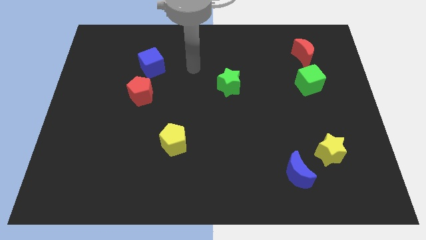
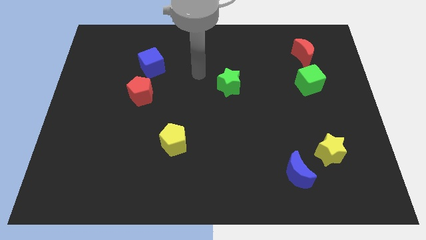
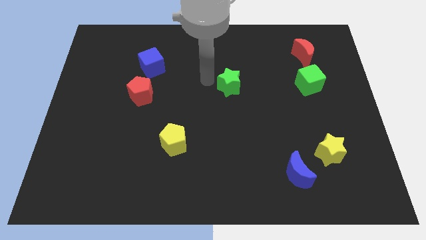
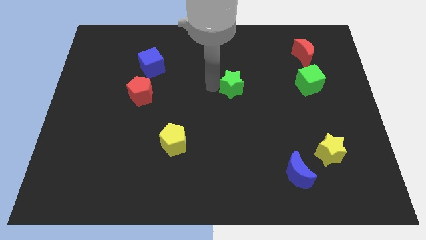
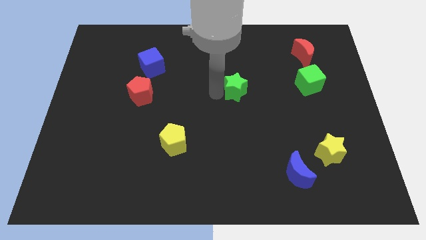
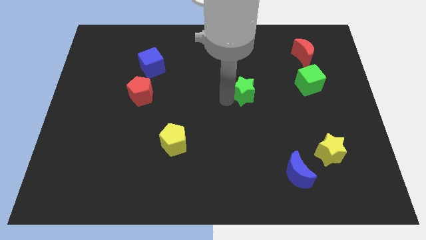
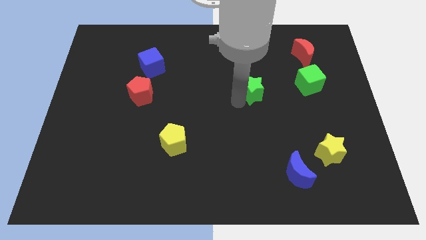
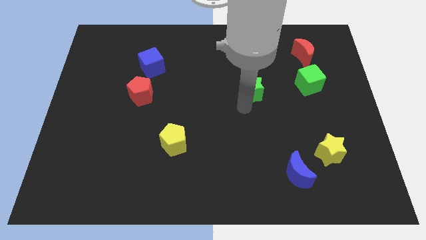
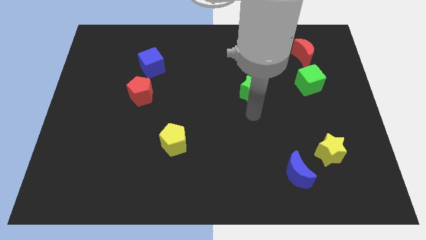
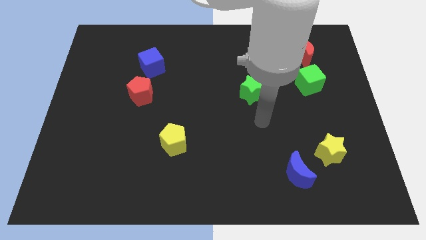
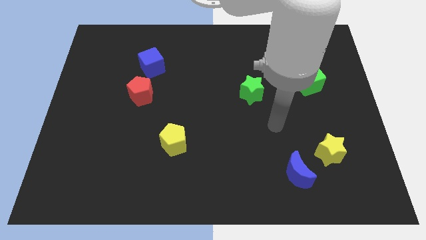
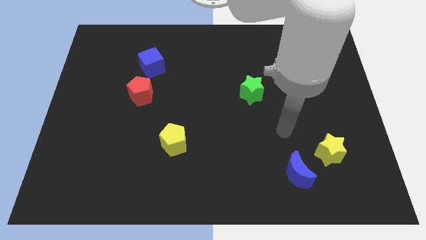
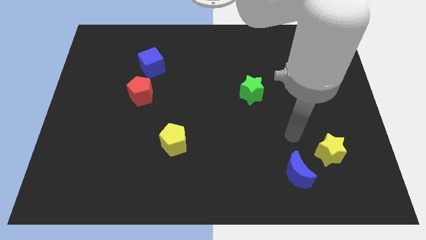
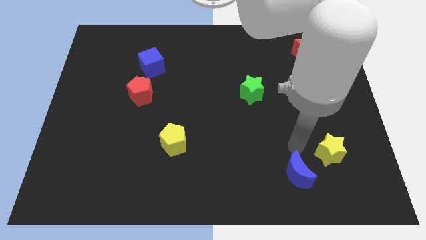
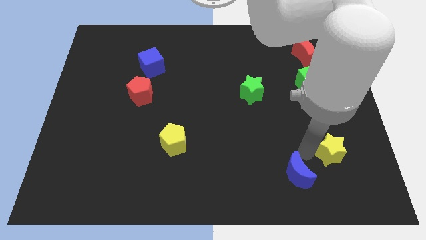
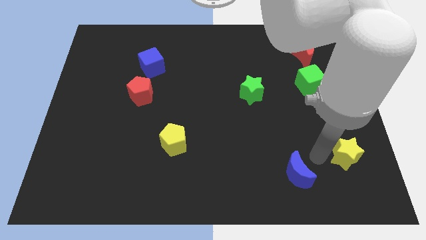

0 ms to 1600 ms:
move the blue moon away from the yellow star

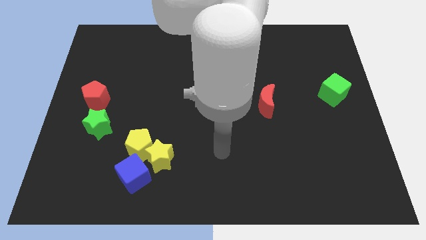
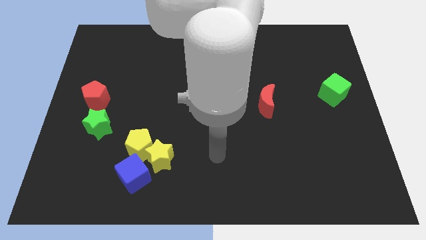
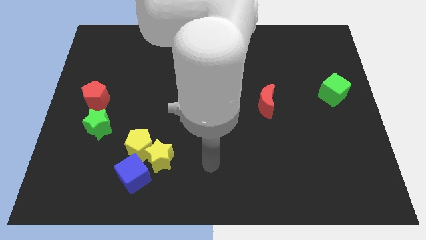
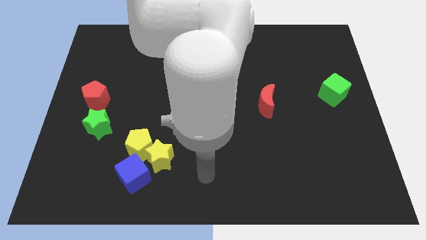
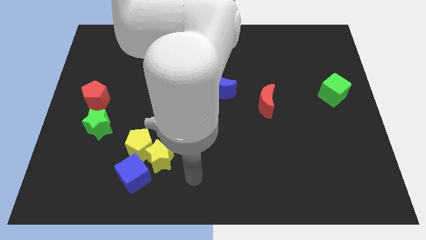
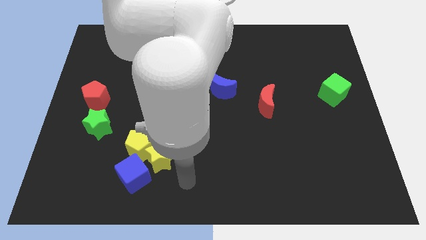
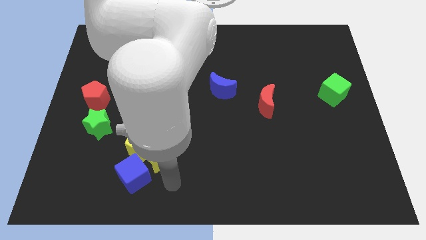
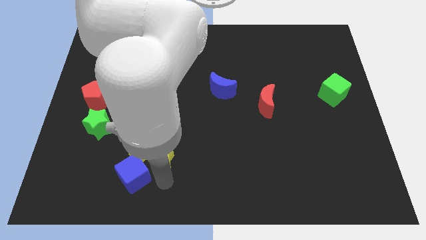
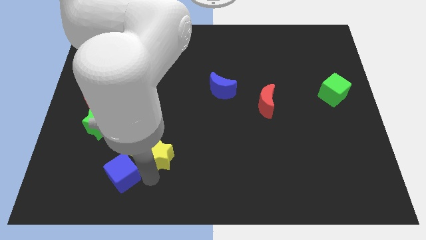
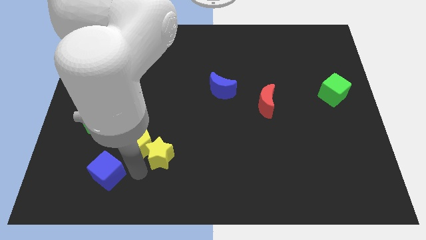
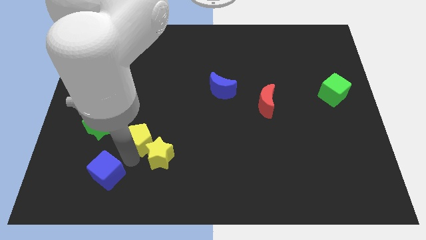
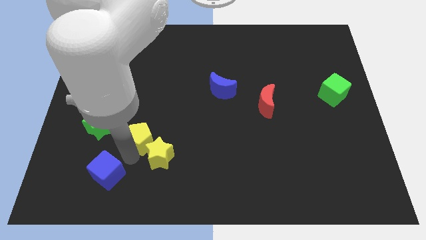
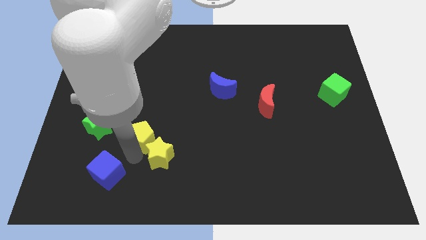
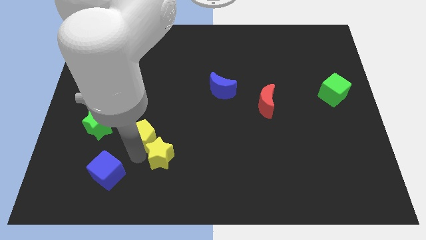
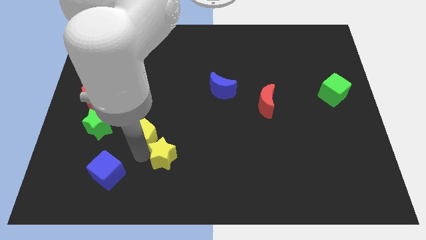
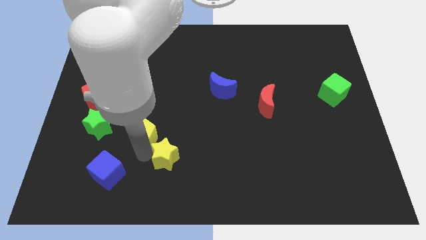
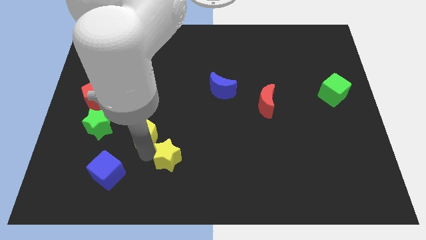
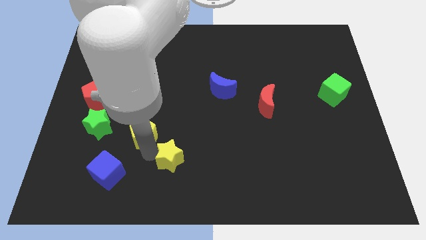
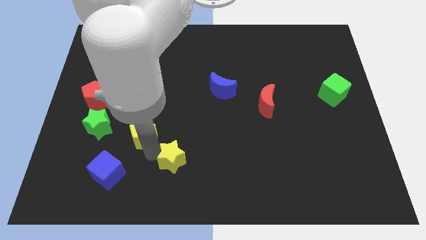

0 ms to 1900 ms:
pull the yellow star apart from the yellow pentagon and blue cube

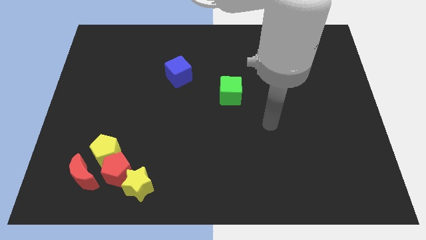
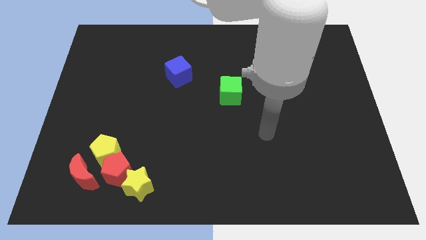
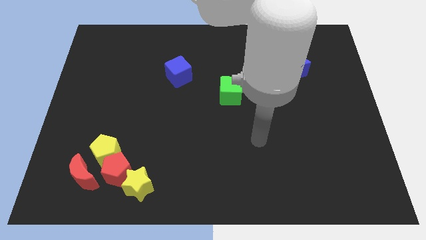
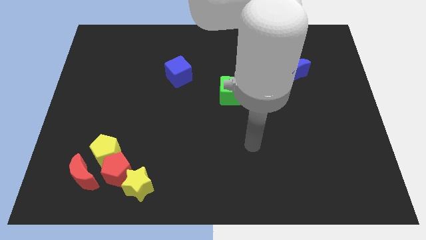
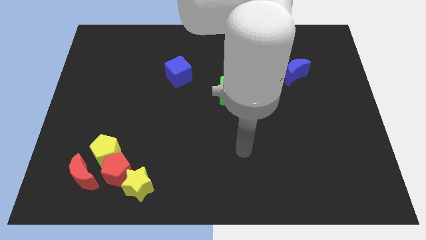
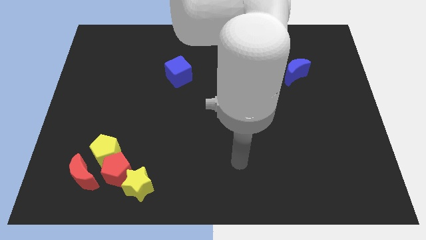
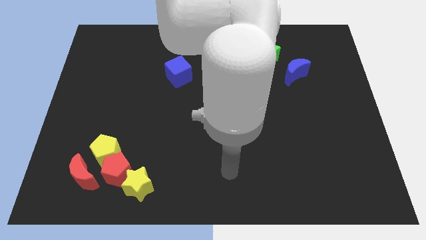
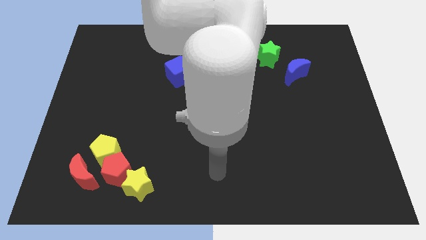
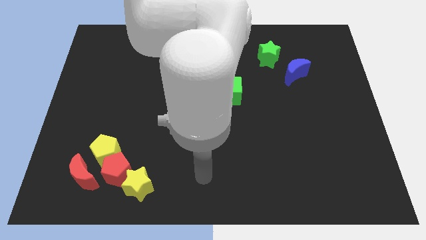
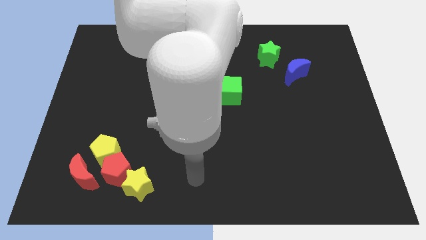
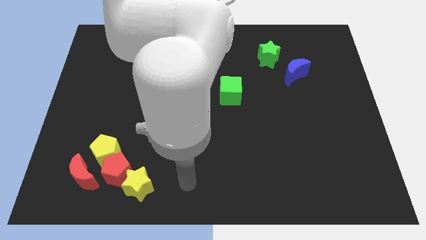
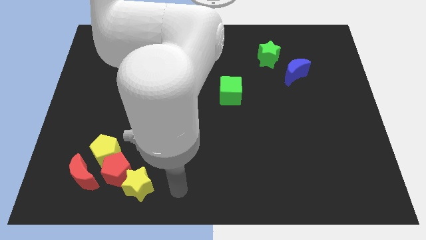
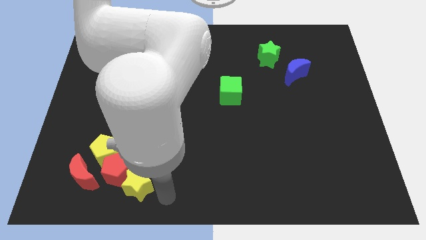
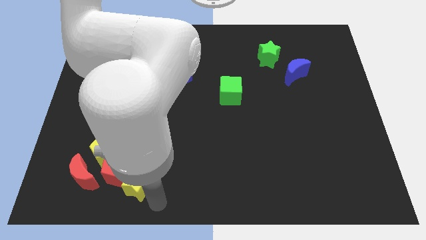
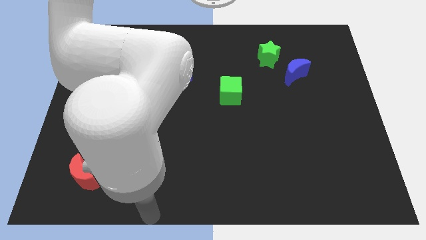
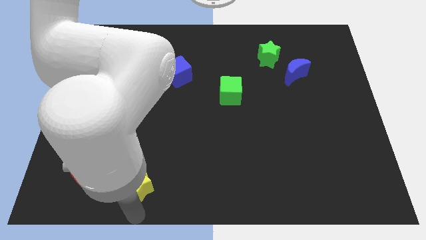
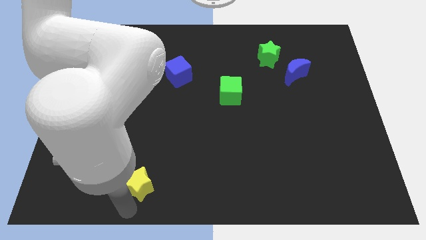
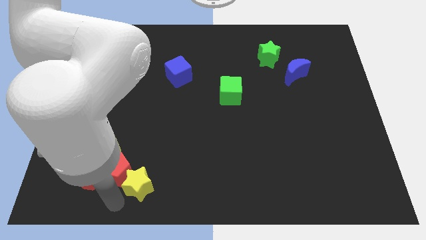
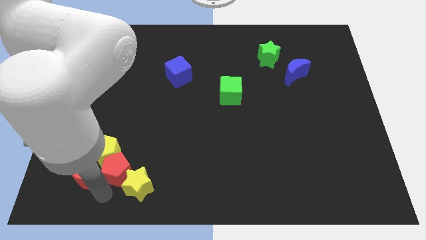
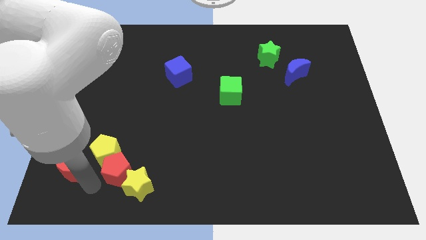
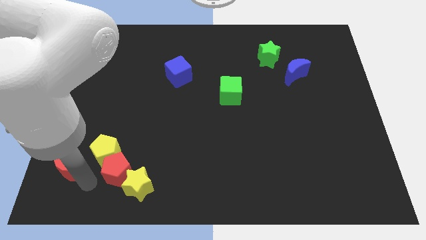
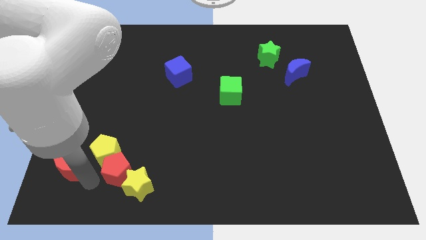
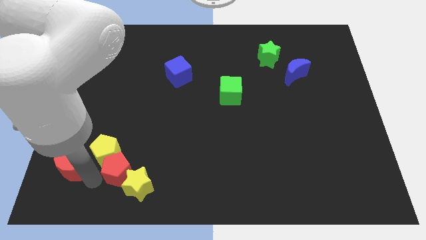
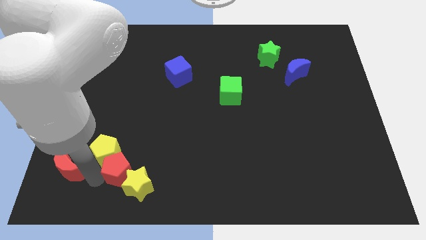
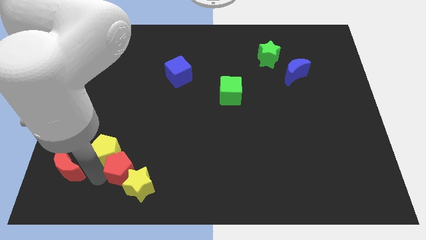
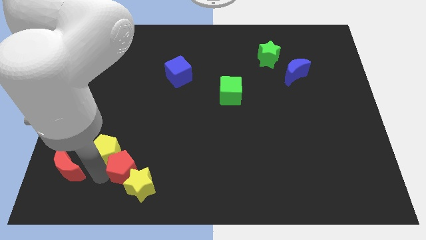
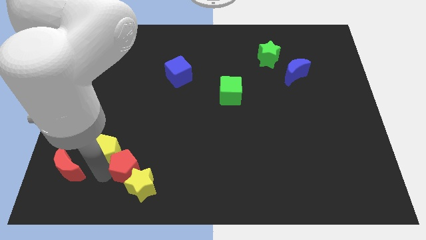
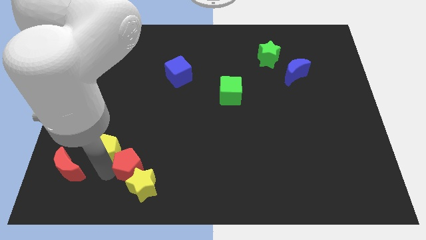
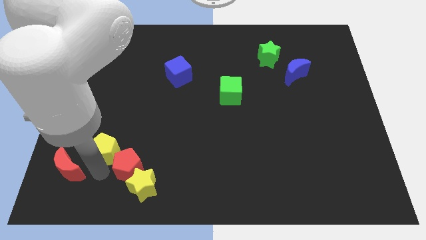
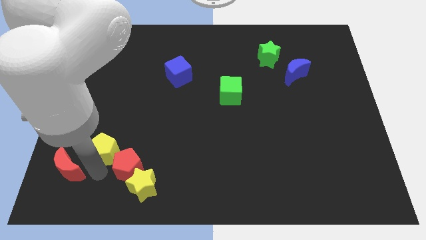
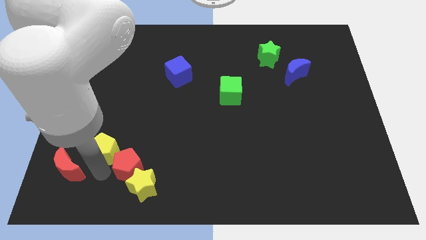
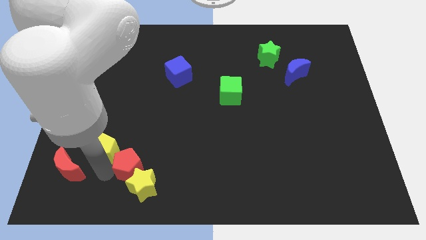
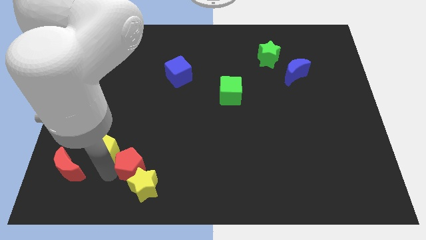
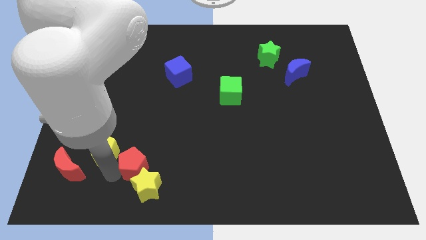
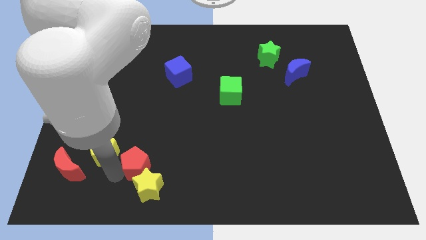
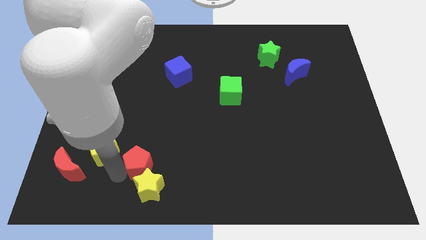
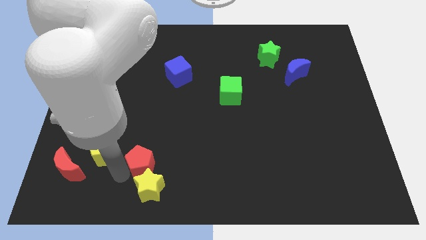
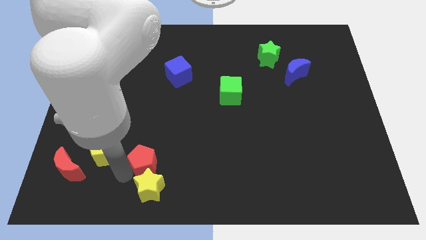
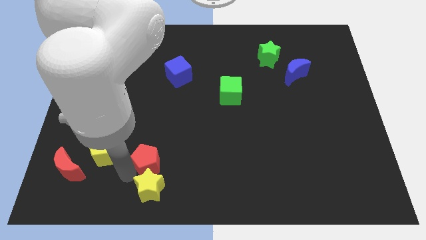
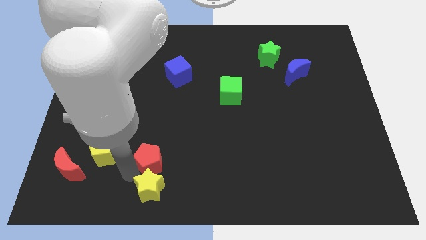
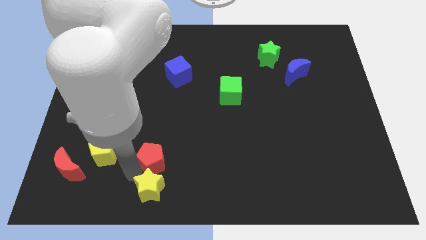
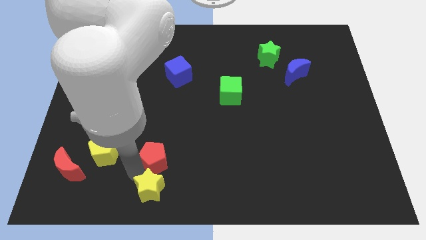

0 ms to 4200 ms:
move the red pentagon away from the clump

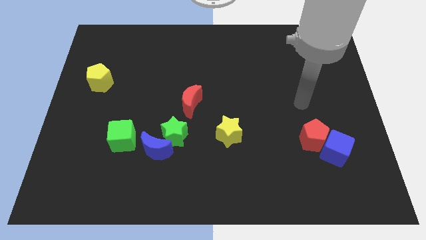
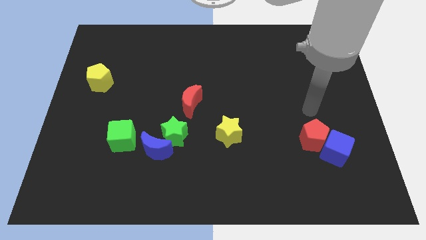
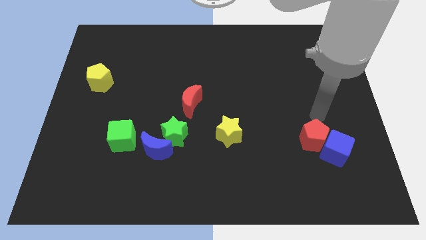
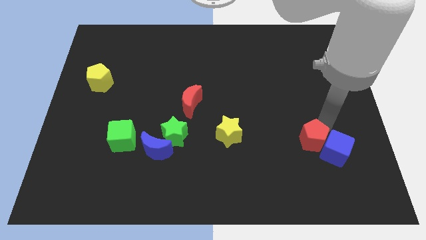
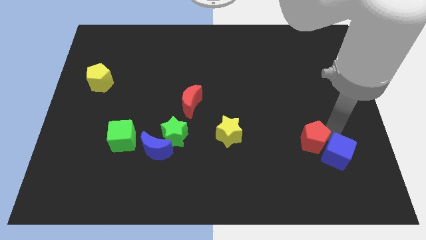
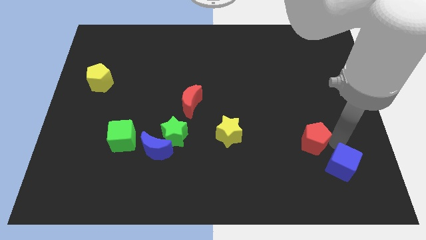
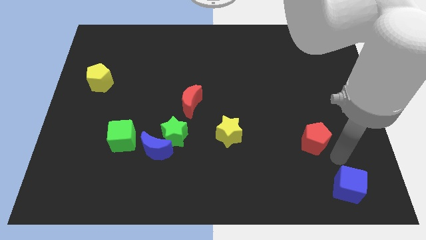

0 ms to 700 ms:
separate the red pentagon from the blue cube

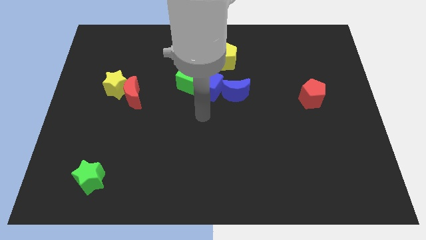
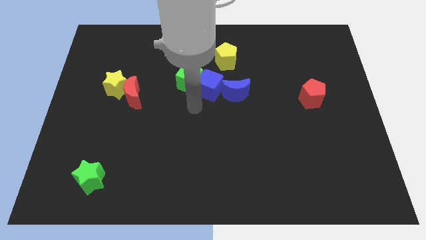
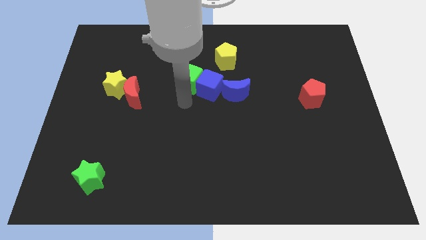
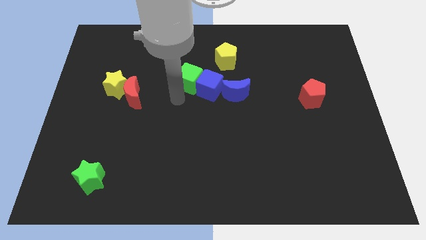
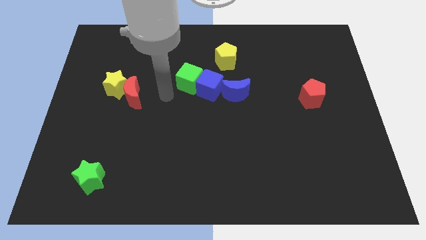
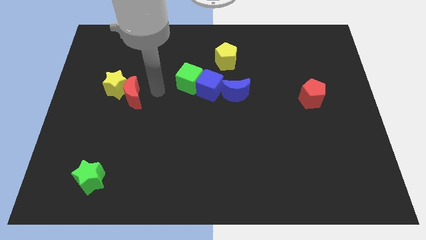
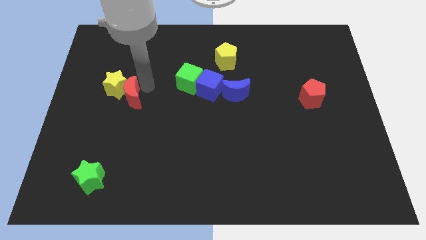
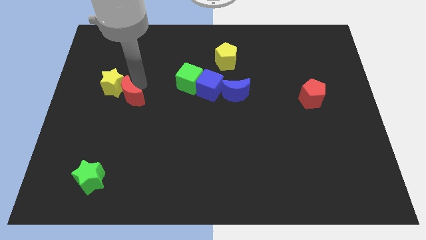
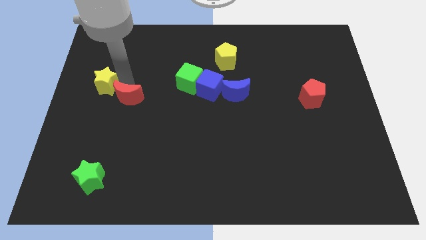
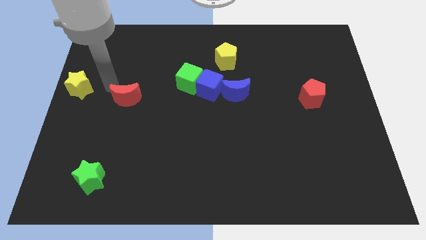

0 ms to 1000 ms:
move the red moon away from the yellow star
